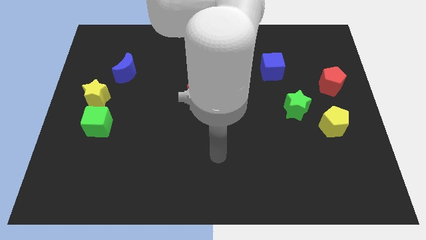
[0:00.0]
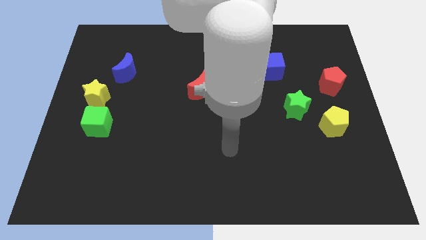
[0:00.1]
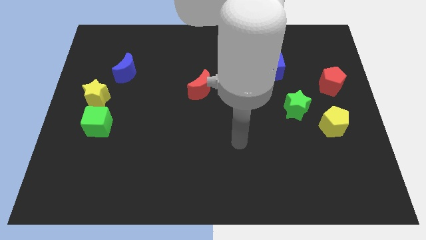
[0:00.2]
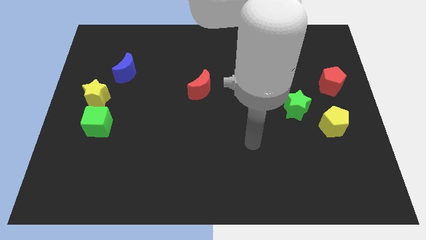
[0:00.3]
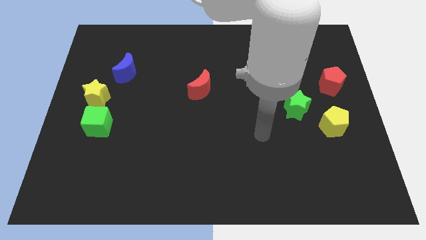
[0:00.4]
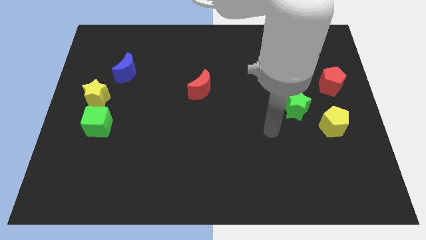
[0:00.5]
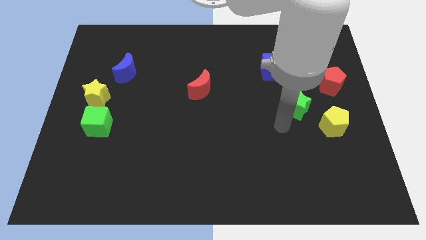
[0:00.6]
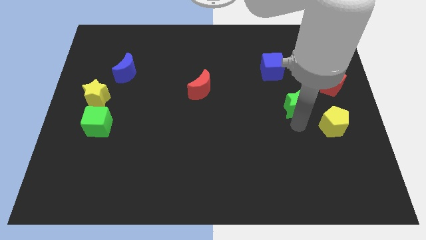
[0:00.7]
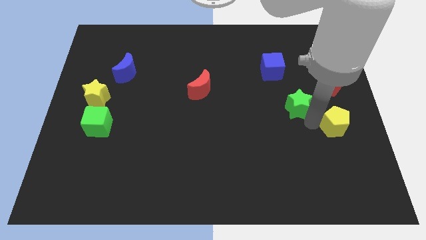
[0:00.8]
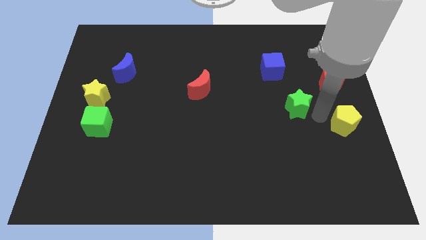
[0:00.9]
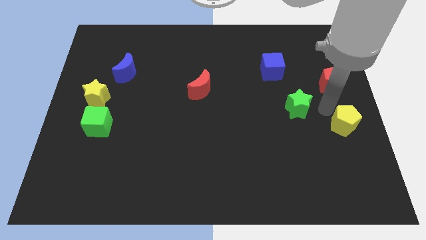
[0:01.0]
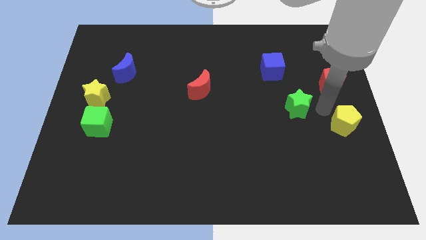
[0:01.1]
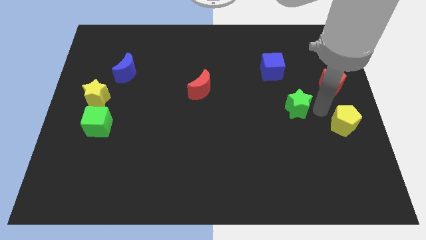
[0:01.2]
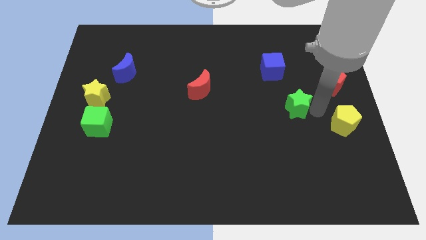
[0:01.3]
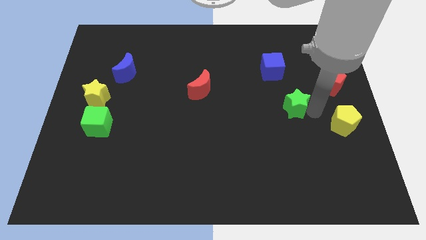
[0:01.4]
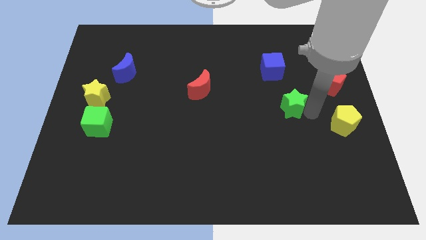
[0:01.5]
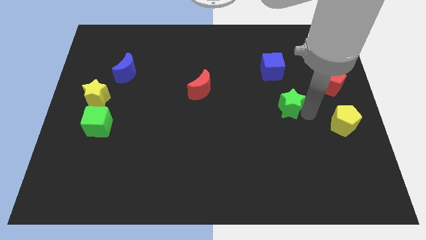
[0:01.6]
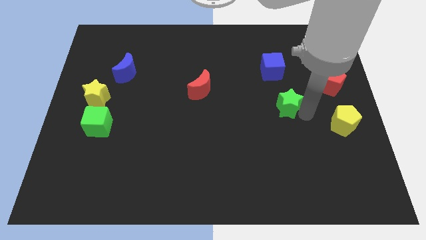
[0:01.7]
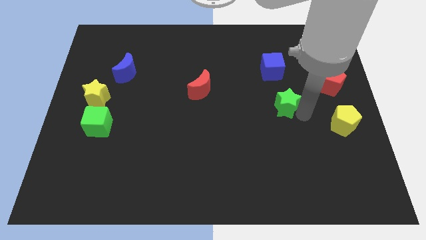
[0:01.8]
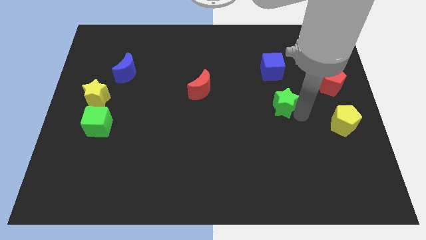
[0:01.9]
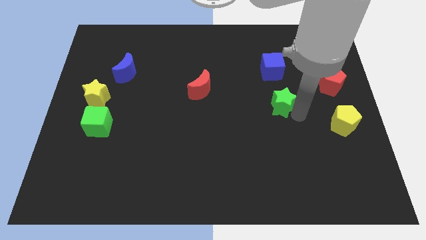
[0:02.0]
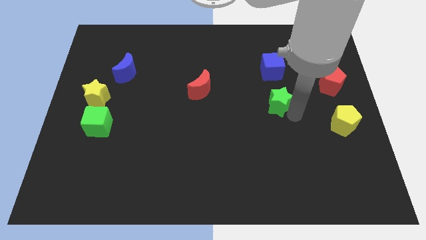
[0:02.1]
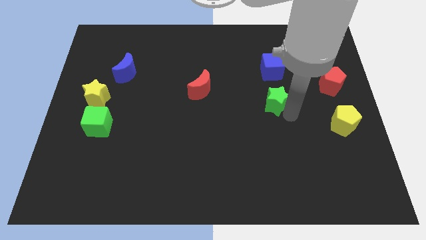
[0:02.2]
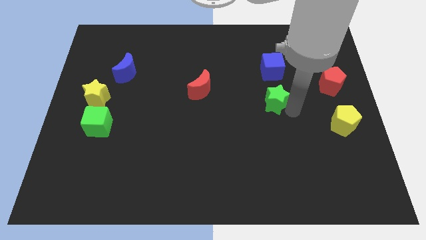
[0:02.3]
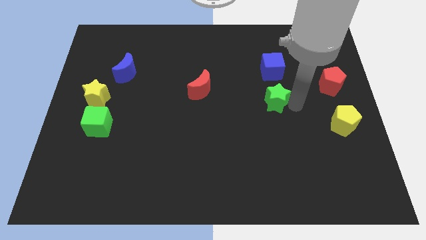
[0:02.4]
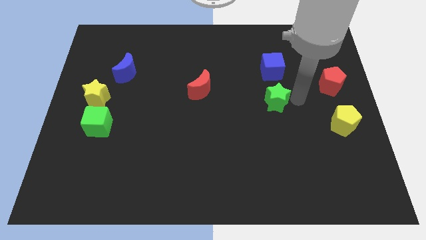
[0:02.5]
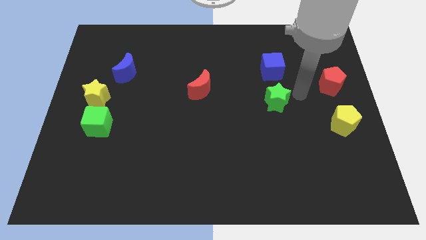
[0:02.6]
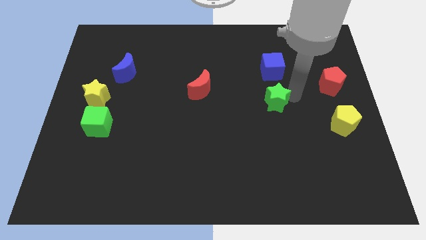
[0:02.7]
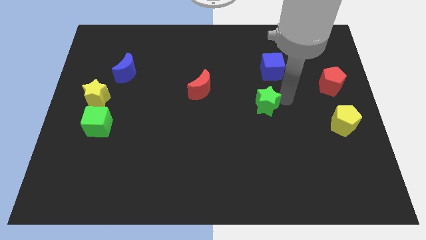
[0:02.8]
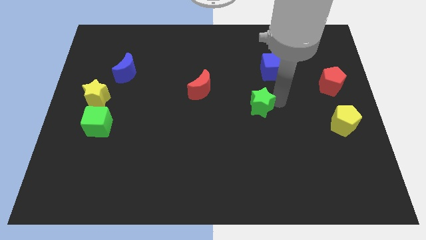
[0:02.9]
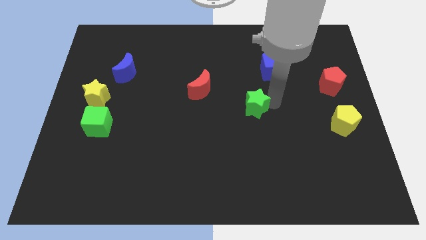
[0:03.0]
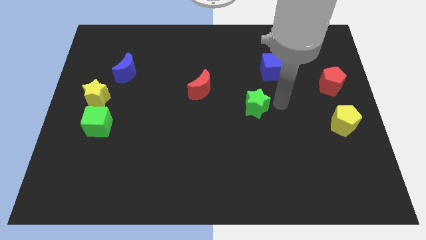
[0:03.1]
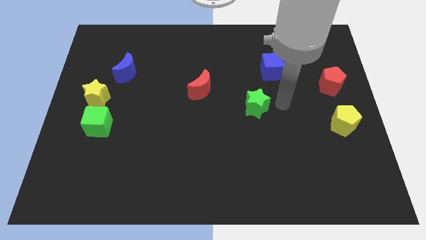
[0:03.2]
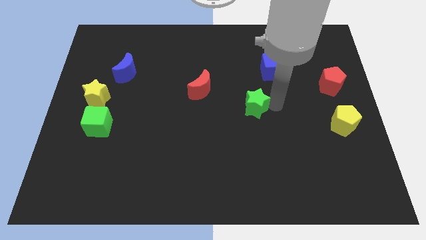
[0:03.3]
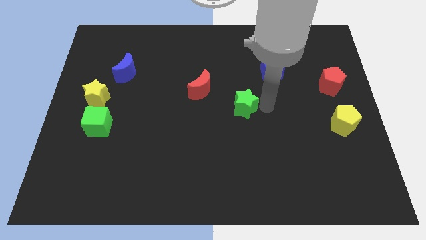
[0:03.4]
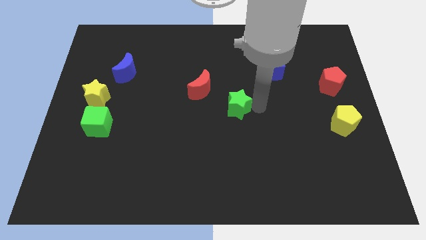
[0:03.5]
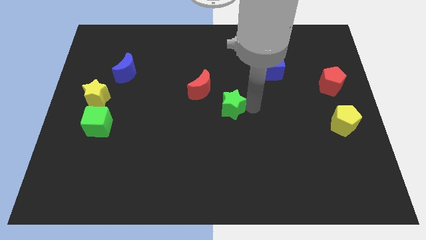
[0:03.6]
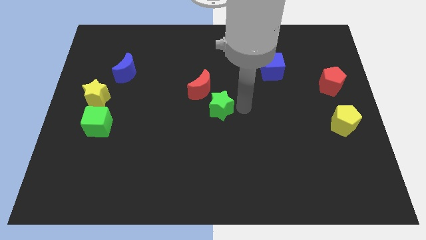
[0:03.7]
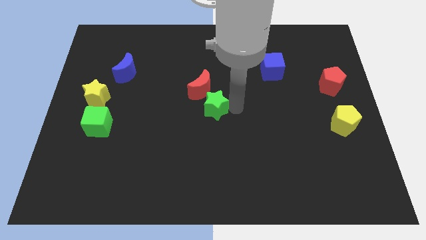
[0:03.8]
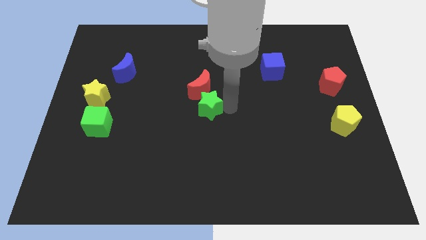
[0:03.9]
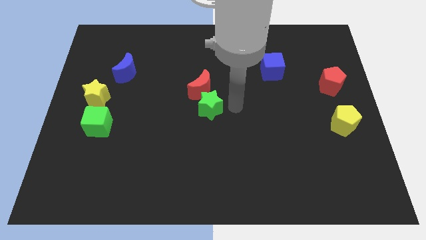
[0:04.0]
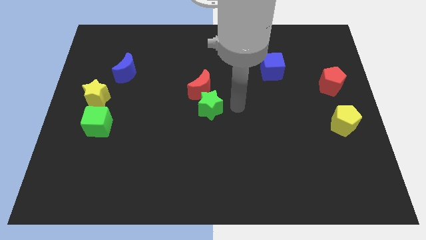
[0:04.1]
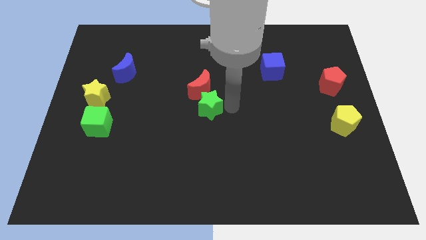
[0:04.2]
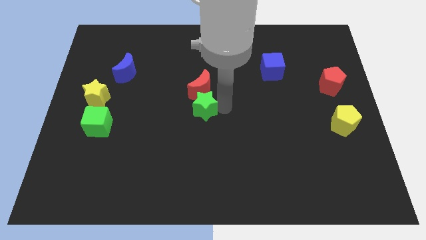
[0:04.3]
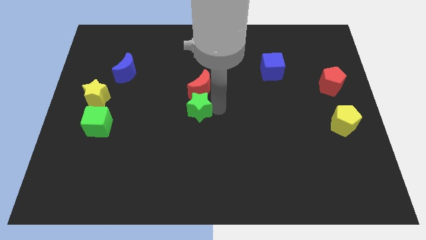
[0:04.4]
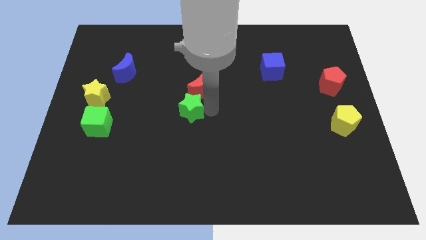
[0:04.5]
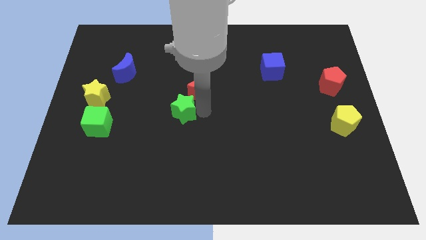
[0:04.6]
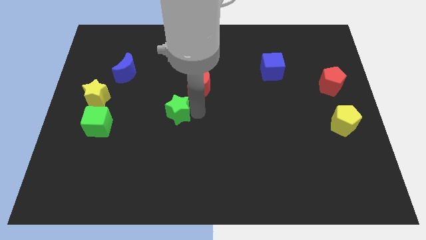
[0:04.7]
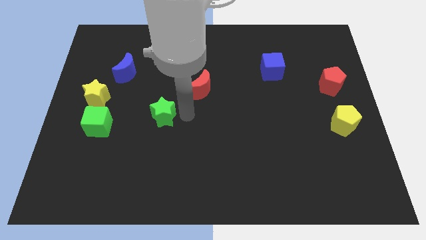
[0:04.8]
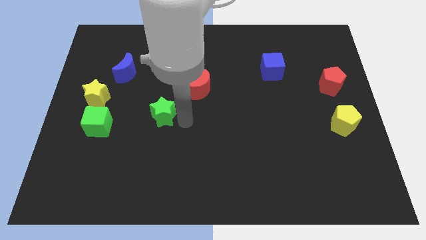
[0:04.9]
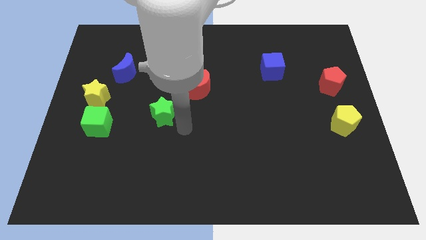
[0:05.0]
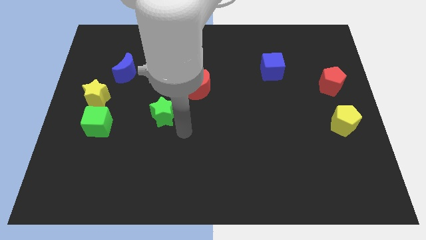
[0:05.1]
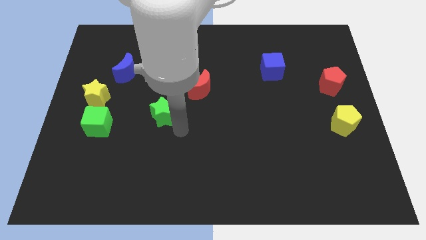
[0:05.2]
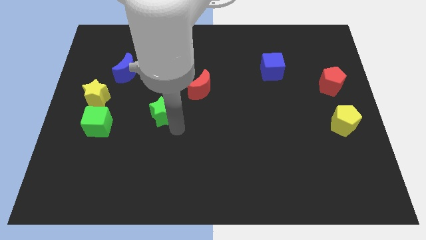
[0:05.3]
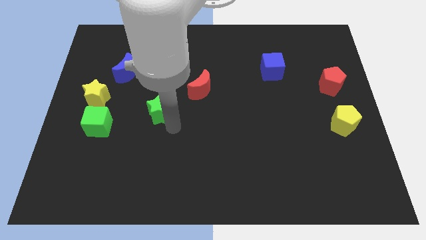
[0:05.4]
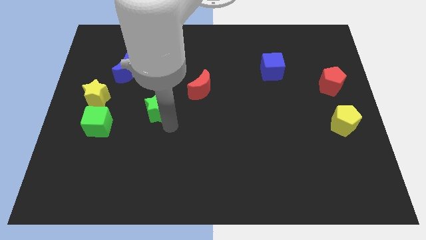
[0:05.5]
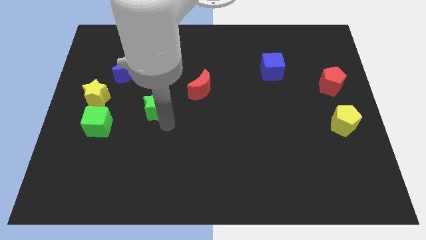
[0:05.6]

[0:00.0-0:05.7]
push the green star to the right side of the yellow star

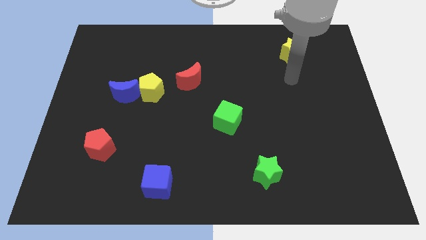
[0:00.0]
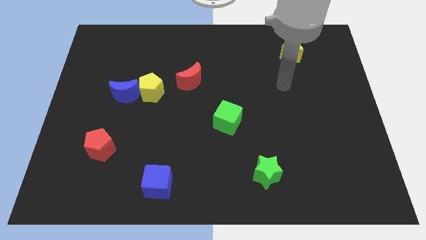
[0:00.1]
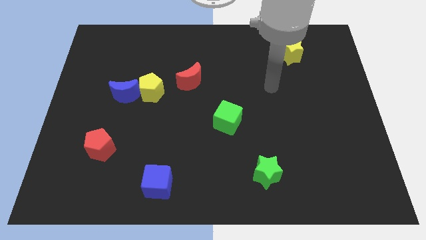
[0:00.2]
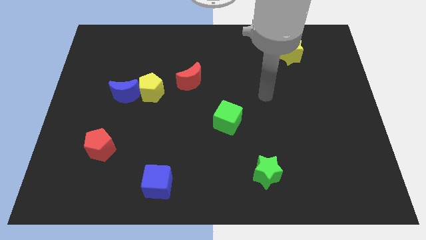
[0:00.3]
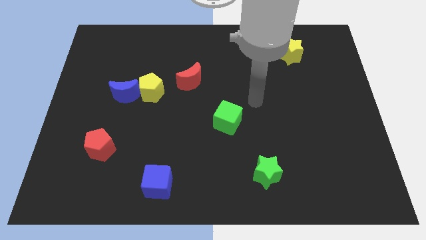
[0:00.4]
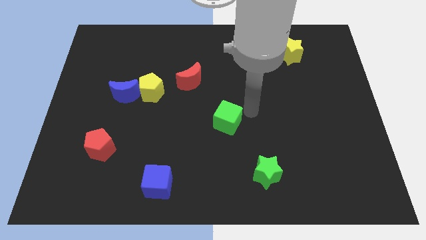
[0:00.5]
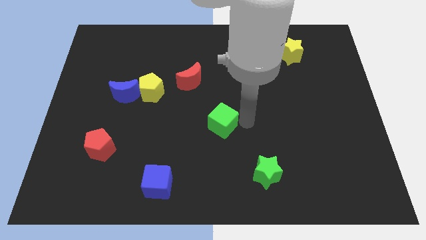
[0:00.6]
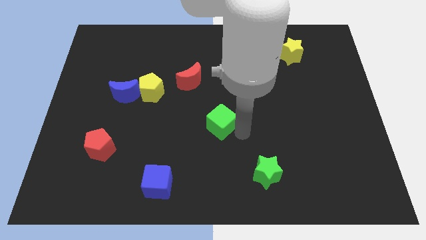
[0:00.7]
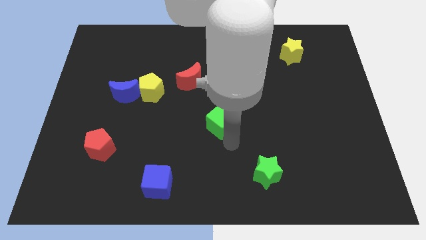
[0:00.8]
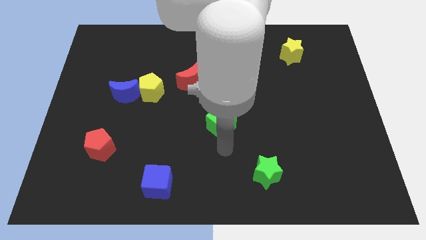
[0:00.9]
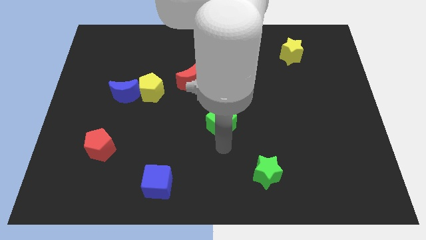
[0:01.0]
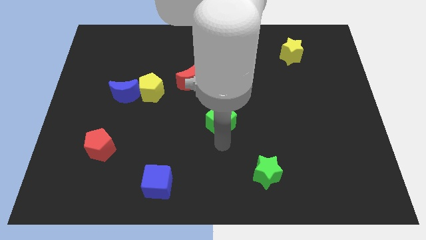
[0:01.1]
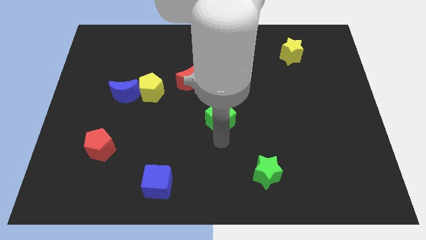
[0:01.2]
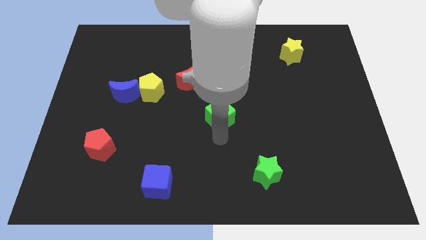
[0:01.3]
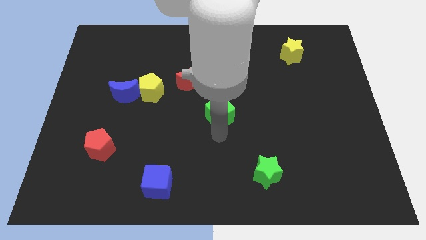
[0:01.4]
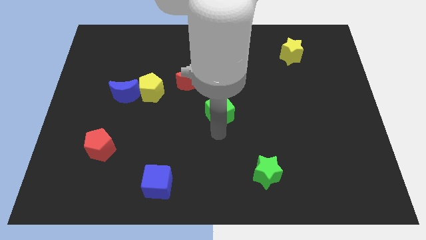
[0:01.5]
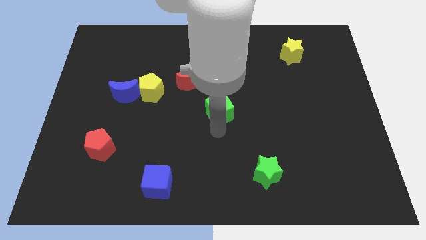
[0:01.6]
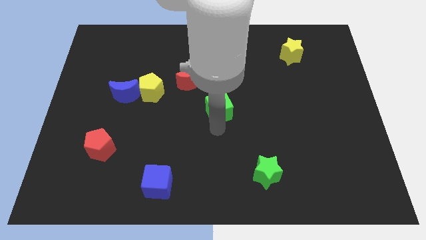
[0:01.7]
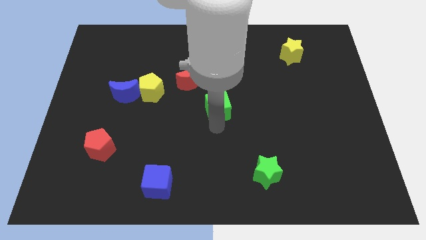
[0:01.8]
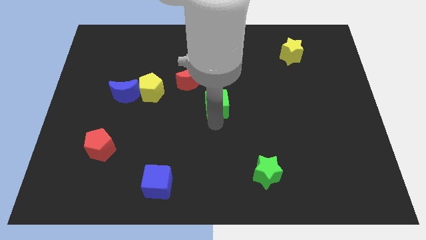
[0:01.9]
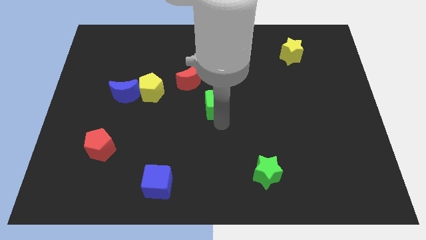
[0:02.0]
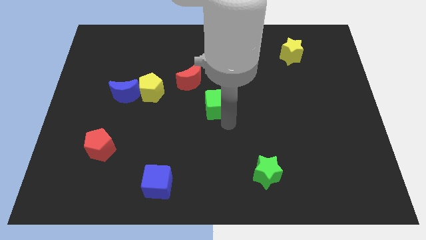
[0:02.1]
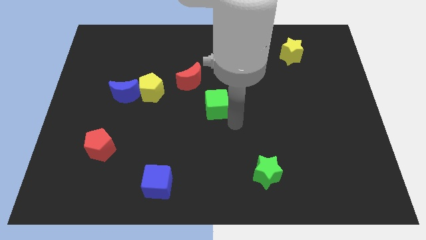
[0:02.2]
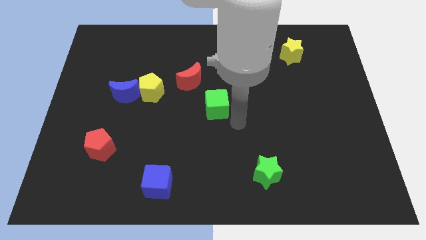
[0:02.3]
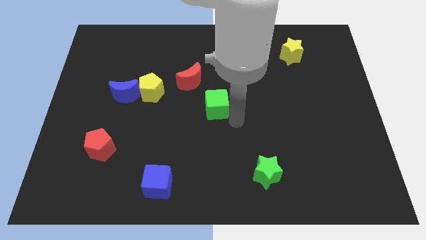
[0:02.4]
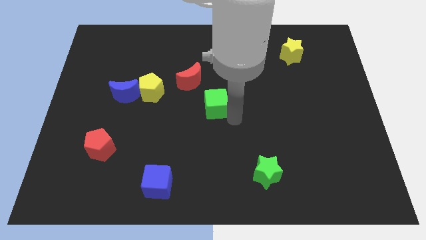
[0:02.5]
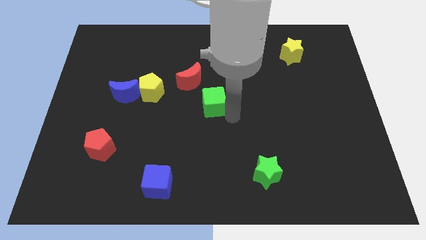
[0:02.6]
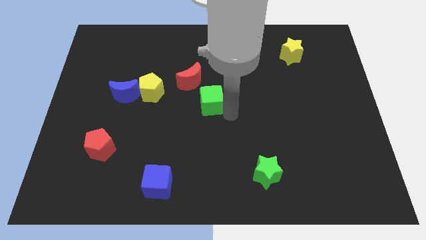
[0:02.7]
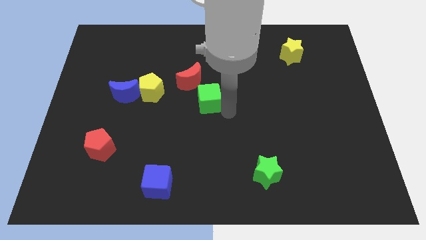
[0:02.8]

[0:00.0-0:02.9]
put the green cube to the right of the yellow pentagon
